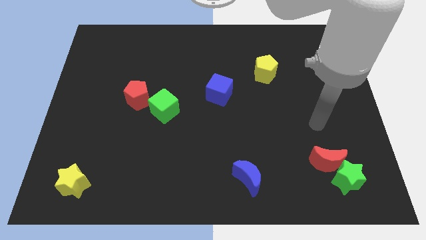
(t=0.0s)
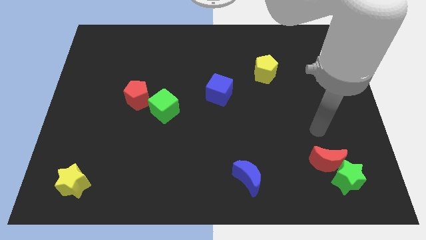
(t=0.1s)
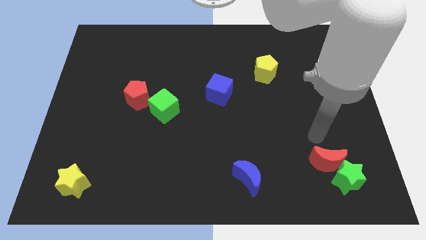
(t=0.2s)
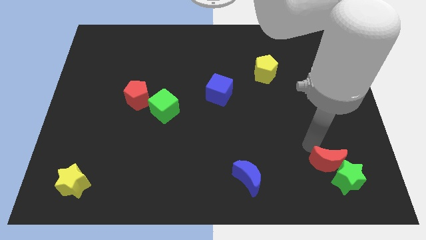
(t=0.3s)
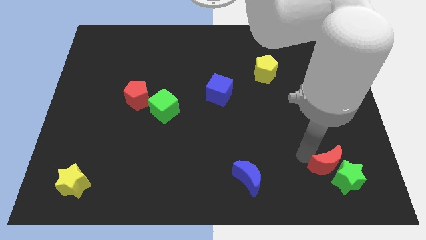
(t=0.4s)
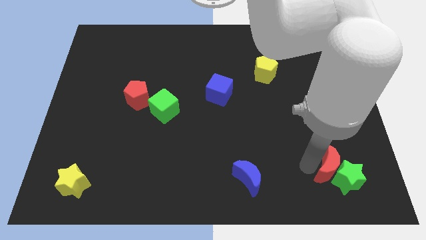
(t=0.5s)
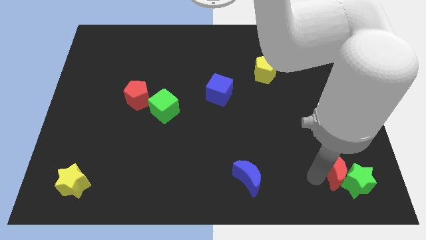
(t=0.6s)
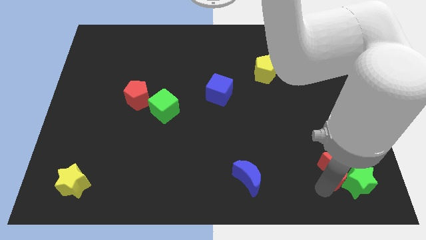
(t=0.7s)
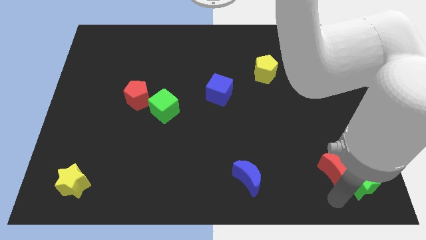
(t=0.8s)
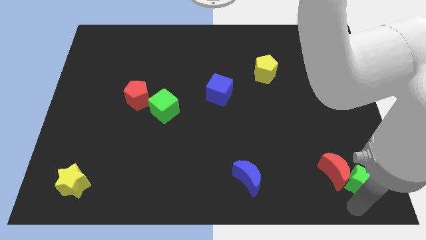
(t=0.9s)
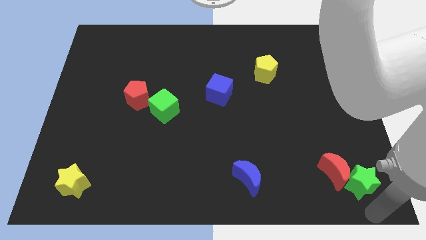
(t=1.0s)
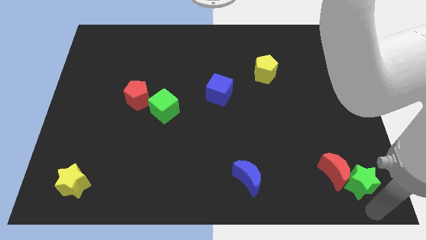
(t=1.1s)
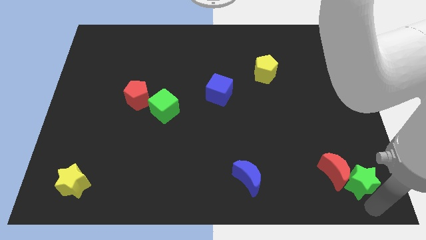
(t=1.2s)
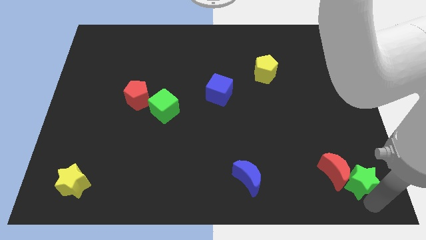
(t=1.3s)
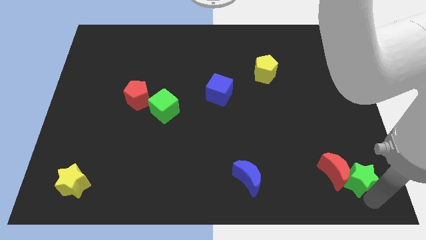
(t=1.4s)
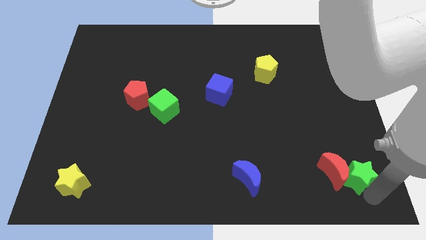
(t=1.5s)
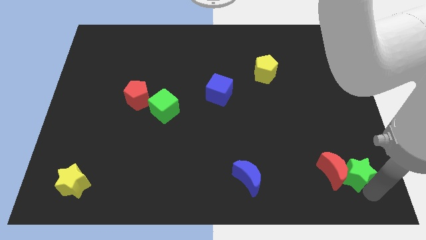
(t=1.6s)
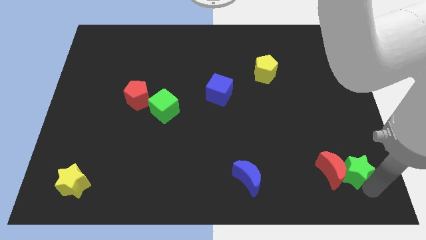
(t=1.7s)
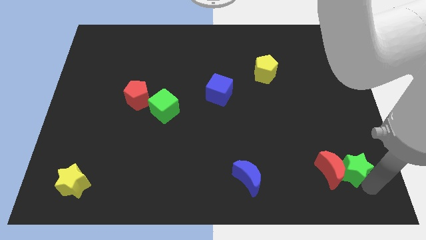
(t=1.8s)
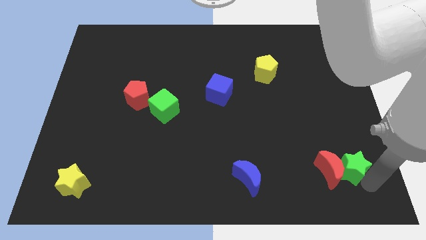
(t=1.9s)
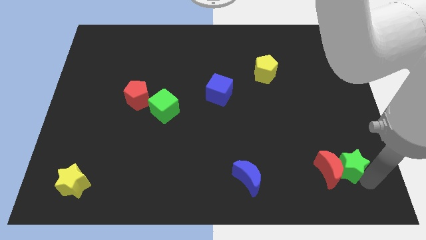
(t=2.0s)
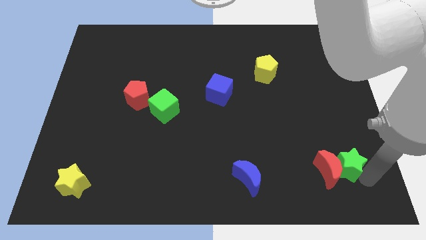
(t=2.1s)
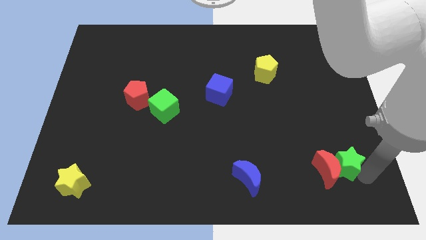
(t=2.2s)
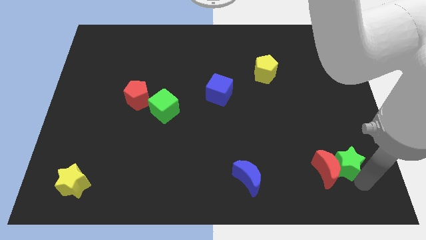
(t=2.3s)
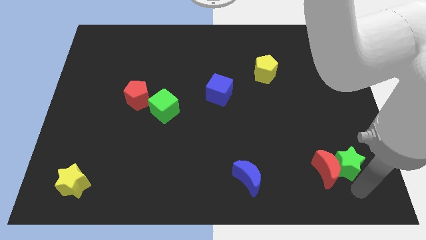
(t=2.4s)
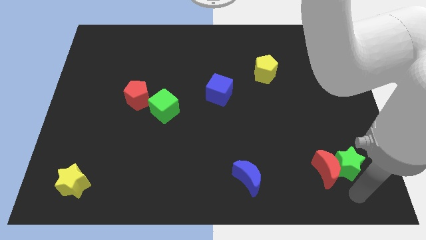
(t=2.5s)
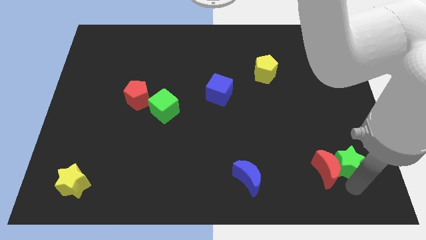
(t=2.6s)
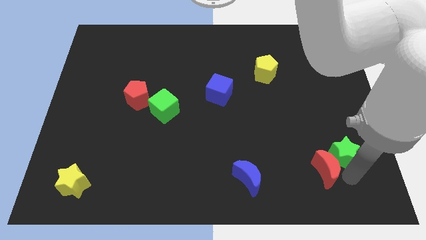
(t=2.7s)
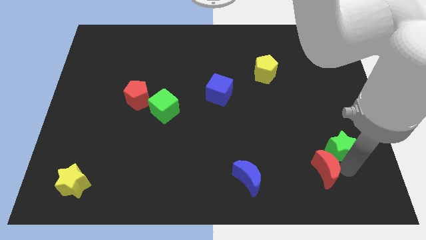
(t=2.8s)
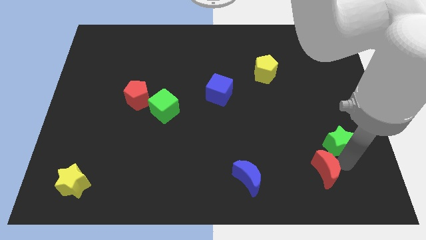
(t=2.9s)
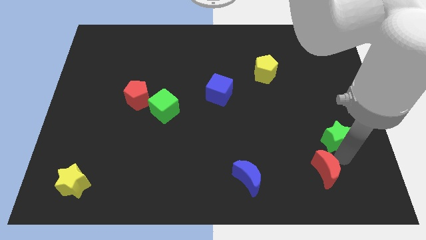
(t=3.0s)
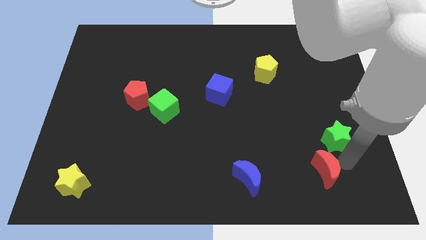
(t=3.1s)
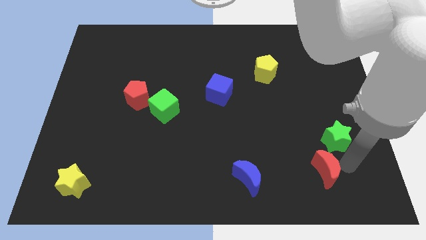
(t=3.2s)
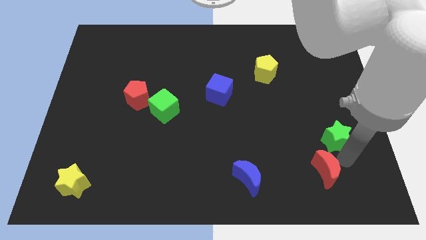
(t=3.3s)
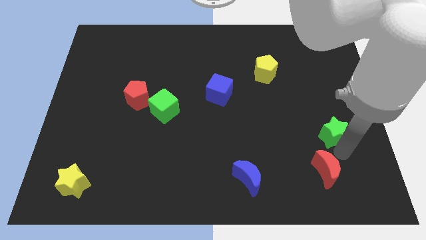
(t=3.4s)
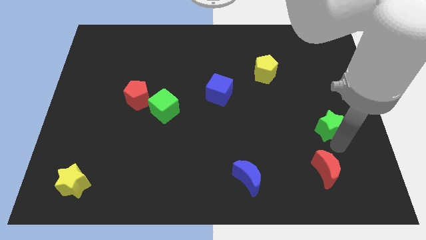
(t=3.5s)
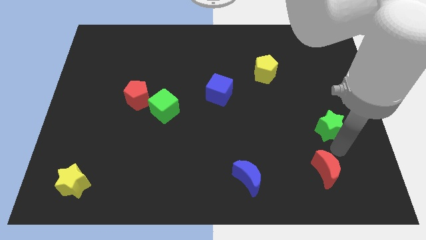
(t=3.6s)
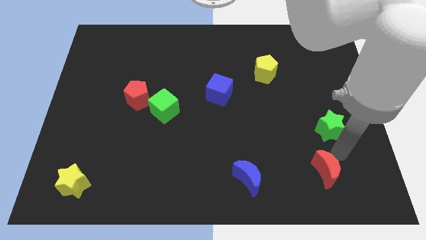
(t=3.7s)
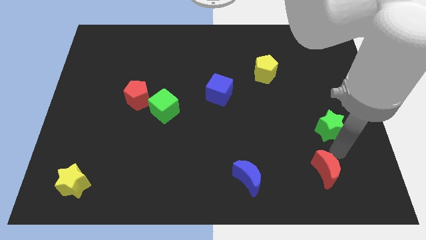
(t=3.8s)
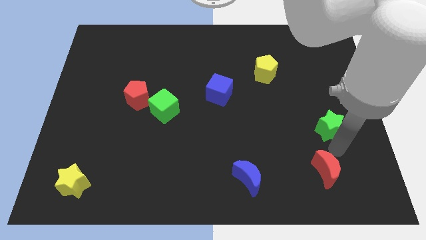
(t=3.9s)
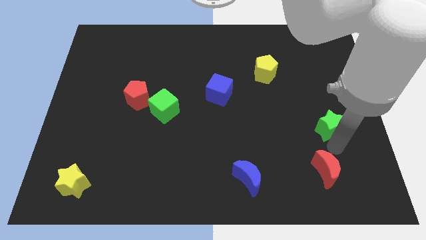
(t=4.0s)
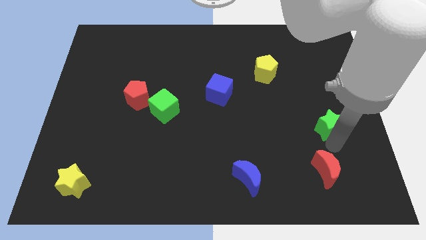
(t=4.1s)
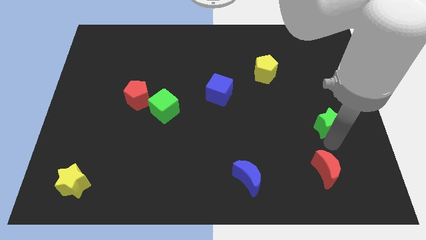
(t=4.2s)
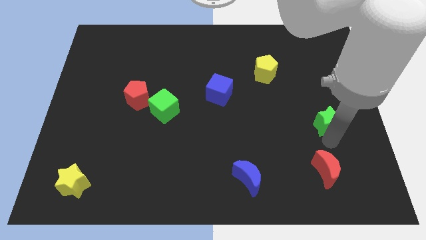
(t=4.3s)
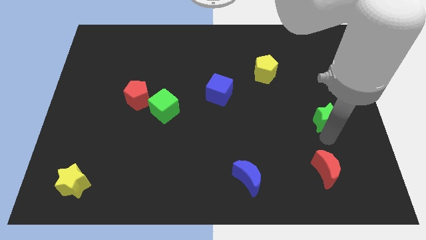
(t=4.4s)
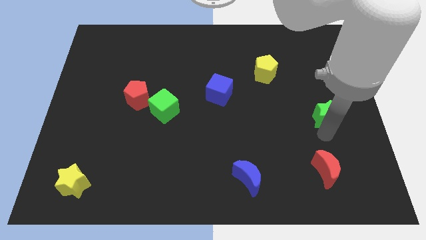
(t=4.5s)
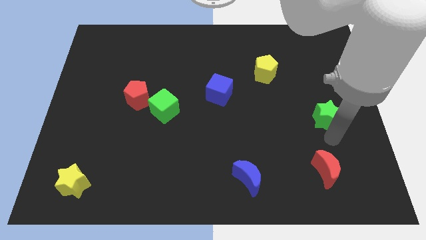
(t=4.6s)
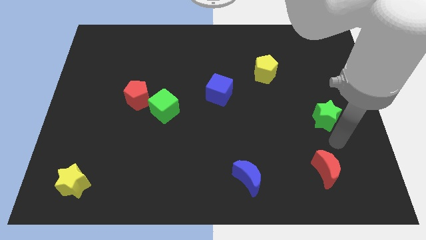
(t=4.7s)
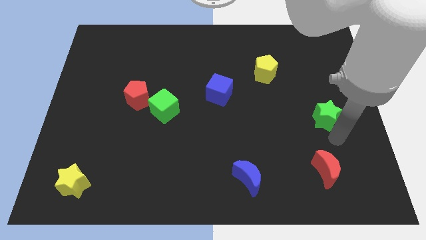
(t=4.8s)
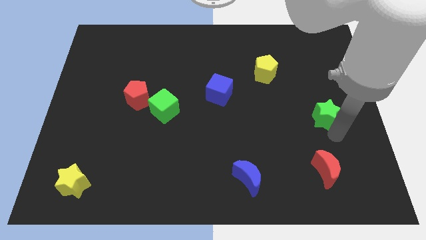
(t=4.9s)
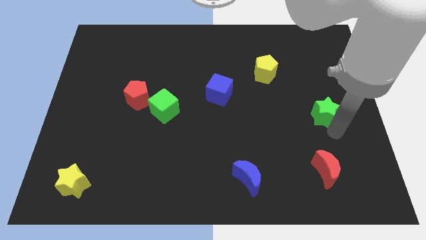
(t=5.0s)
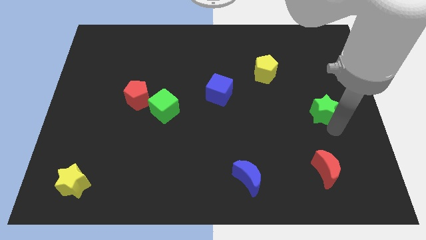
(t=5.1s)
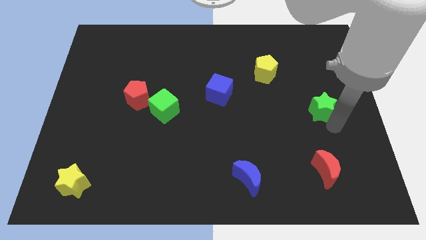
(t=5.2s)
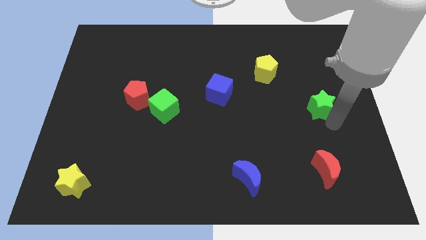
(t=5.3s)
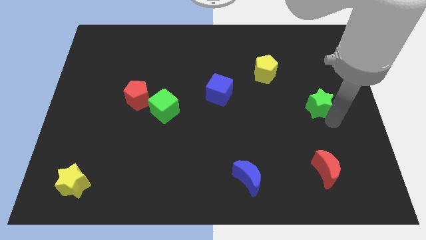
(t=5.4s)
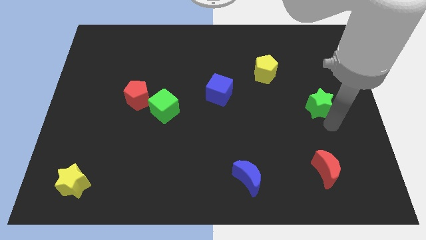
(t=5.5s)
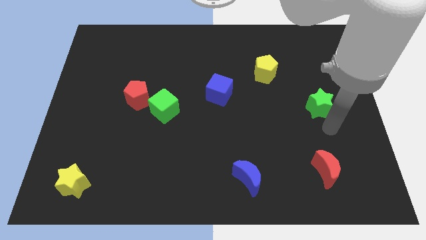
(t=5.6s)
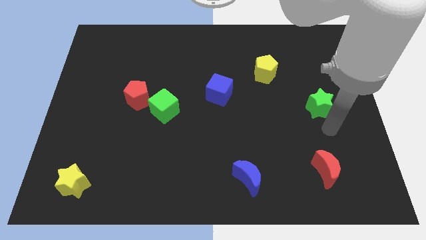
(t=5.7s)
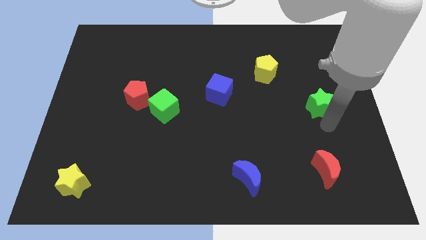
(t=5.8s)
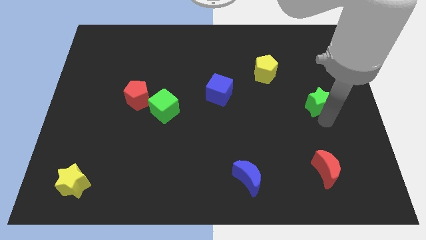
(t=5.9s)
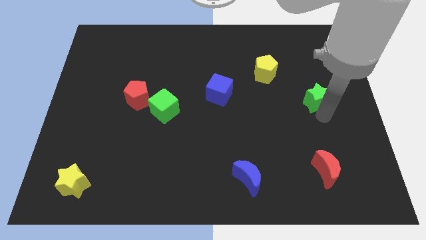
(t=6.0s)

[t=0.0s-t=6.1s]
push the green star upwards

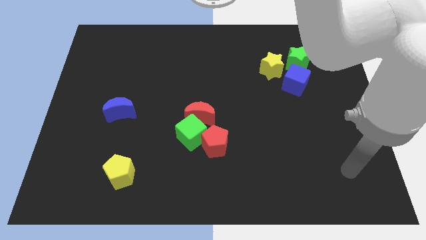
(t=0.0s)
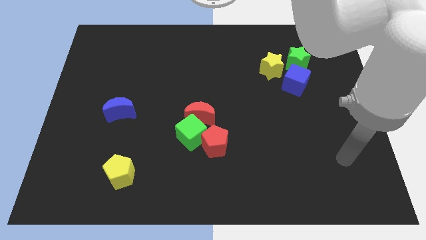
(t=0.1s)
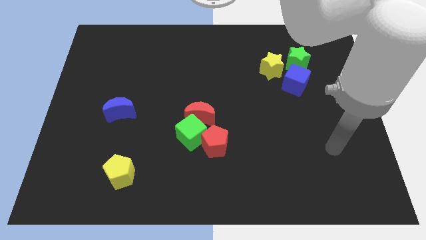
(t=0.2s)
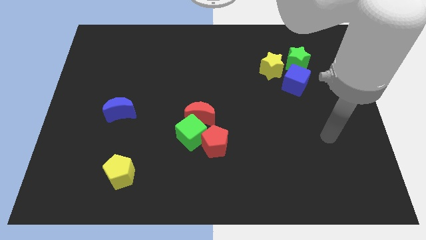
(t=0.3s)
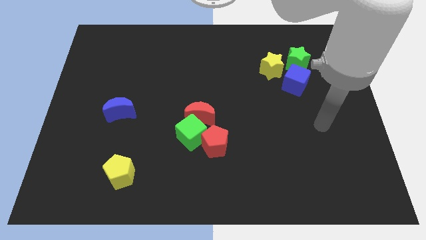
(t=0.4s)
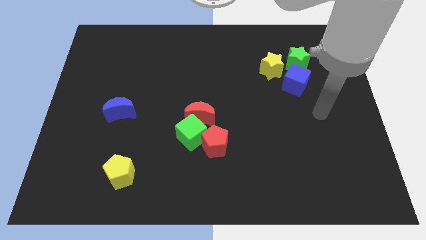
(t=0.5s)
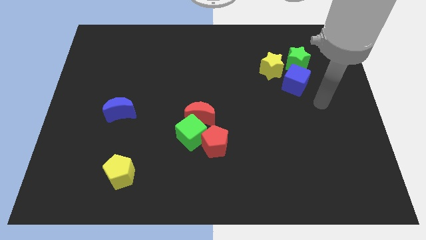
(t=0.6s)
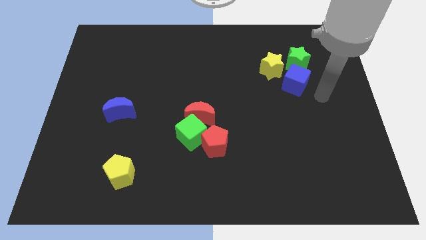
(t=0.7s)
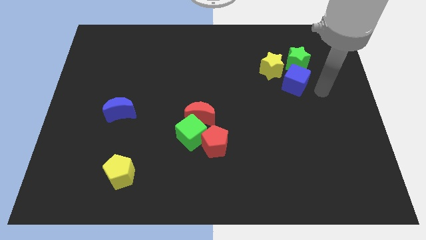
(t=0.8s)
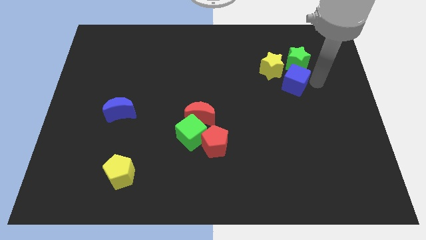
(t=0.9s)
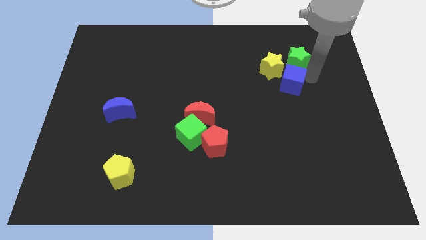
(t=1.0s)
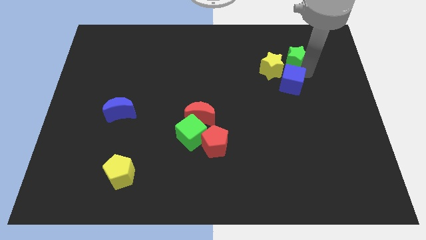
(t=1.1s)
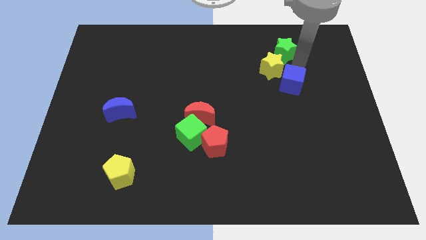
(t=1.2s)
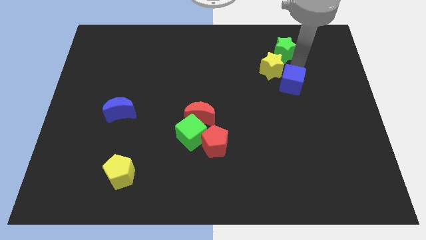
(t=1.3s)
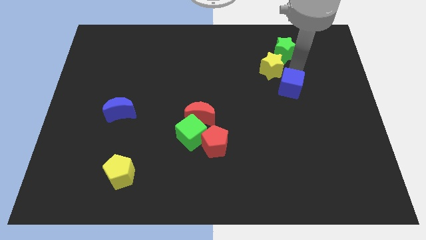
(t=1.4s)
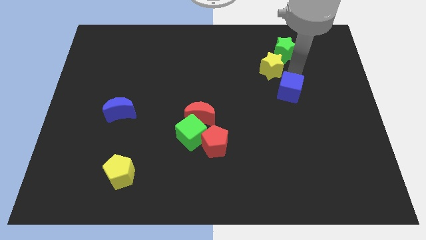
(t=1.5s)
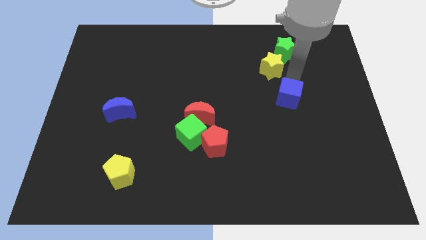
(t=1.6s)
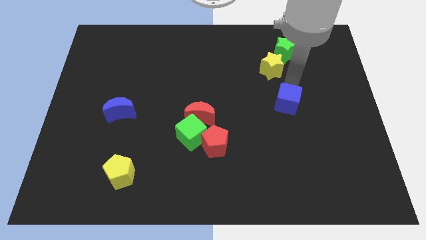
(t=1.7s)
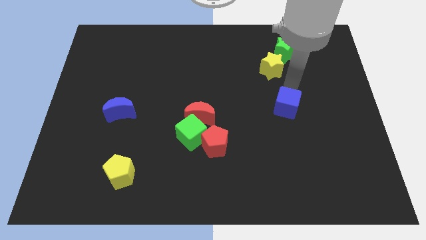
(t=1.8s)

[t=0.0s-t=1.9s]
push the blue cube downwards a little bit
